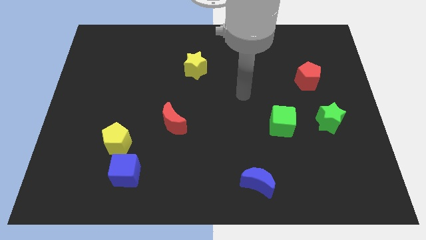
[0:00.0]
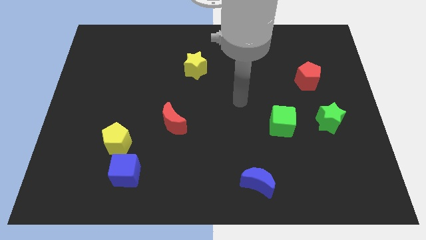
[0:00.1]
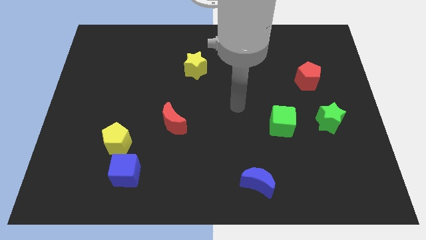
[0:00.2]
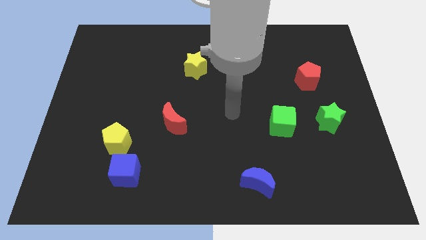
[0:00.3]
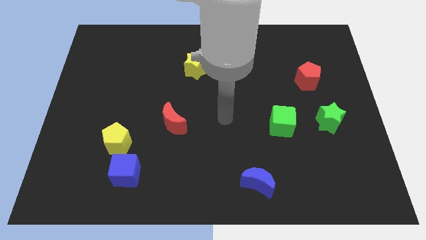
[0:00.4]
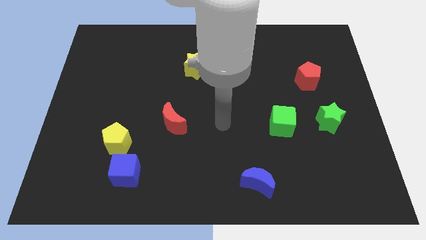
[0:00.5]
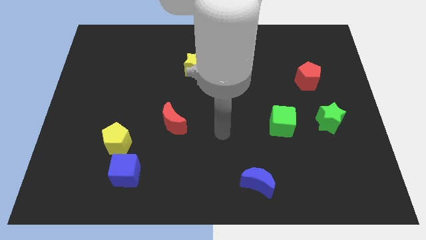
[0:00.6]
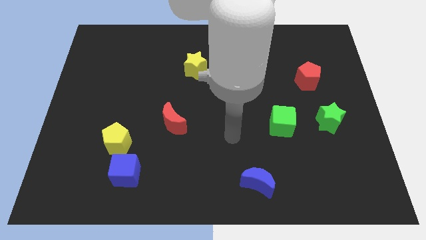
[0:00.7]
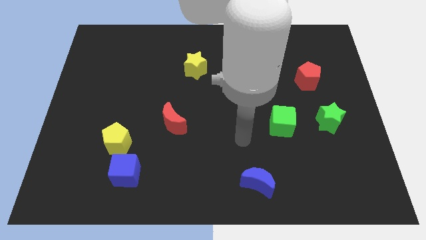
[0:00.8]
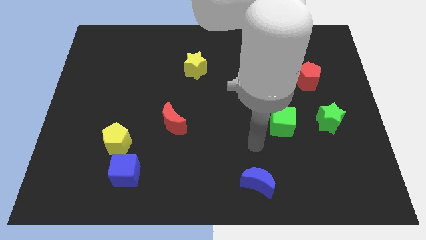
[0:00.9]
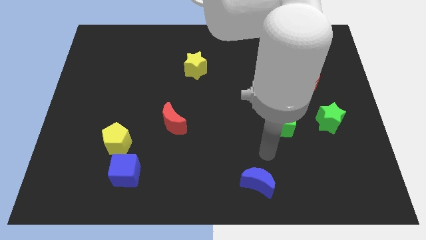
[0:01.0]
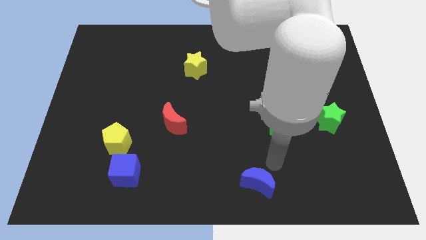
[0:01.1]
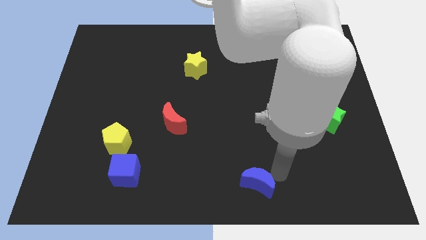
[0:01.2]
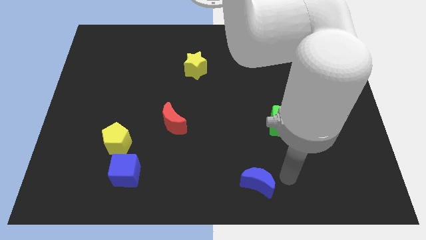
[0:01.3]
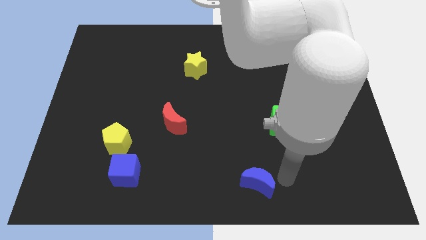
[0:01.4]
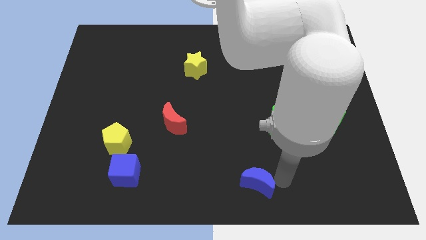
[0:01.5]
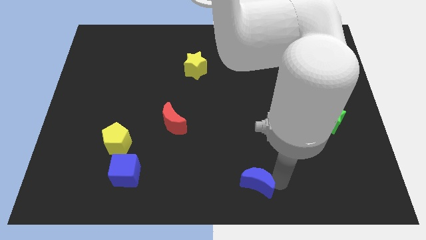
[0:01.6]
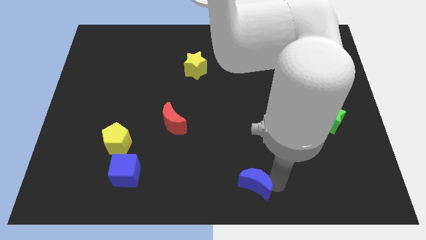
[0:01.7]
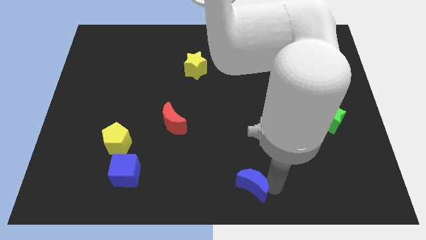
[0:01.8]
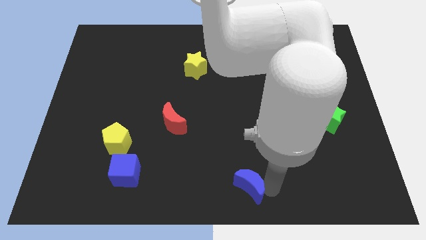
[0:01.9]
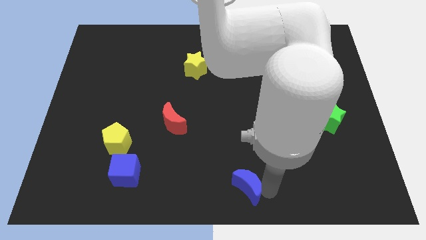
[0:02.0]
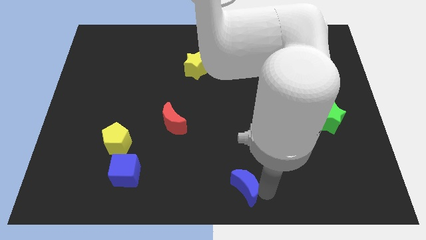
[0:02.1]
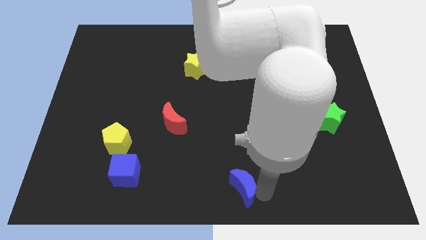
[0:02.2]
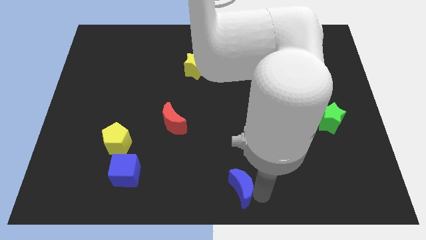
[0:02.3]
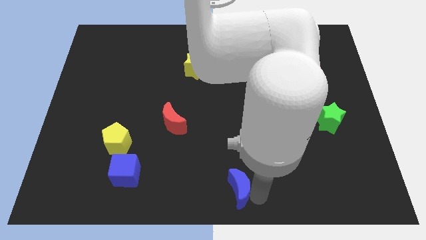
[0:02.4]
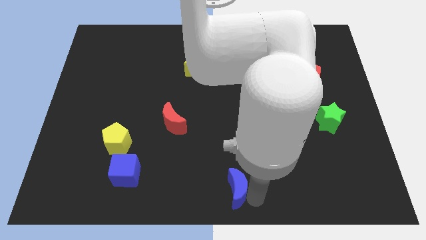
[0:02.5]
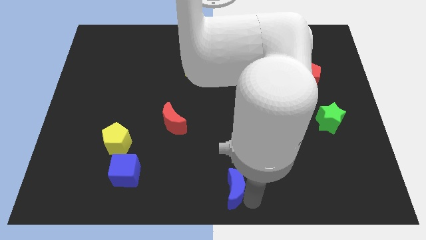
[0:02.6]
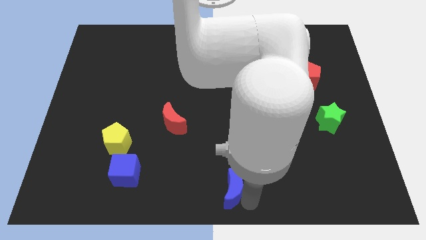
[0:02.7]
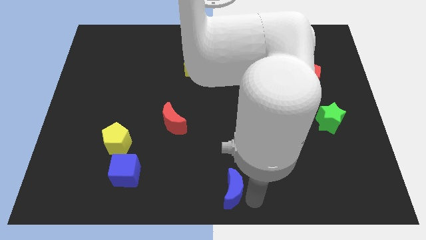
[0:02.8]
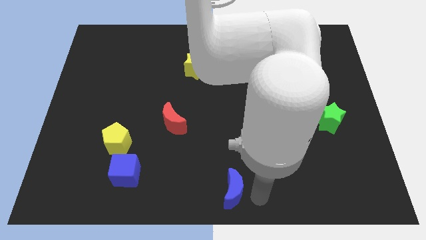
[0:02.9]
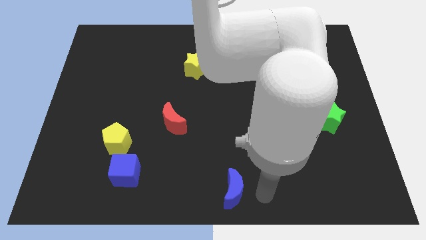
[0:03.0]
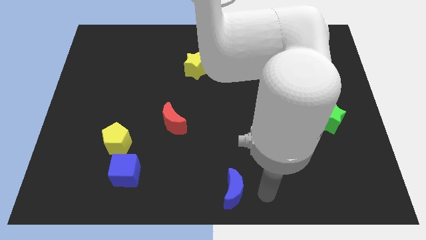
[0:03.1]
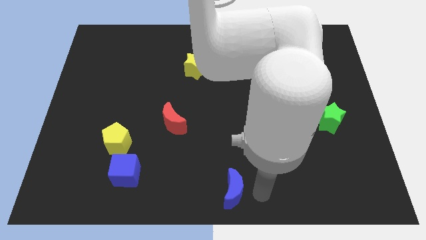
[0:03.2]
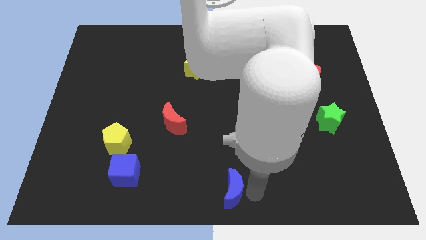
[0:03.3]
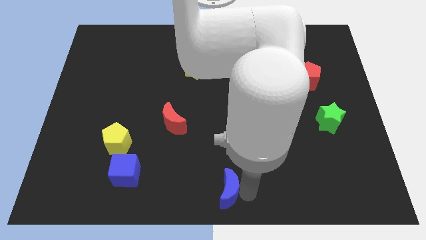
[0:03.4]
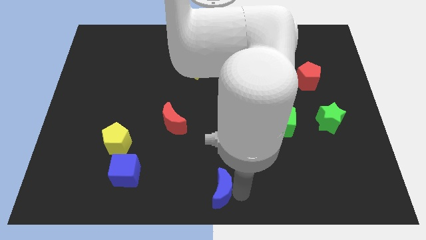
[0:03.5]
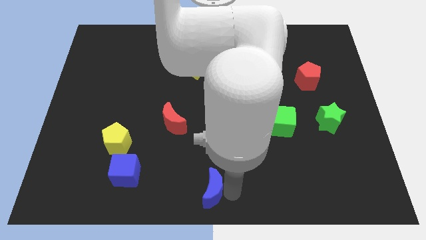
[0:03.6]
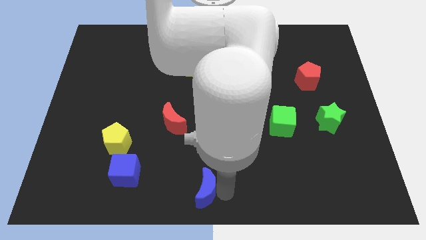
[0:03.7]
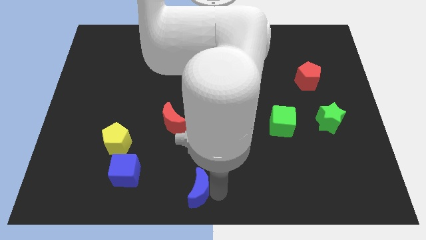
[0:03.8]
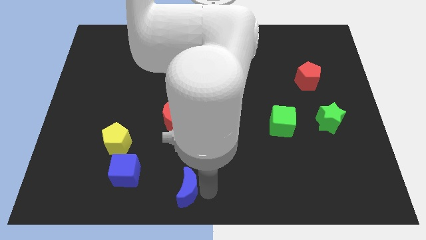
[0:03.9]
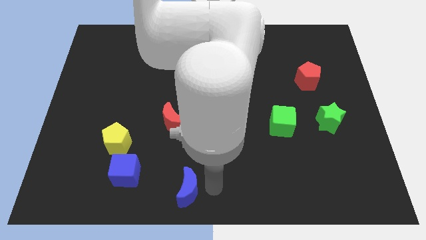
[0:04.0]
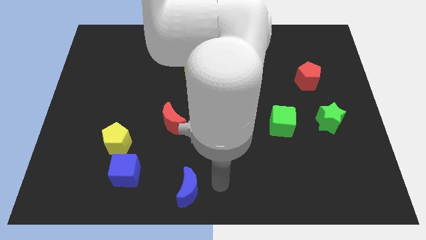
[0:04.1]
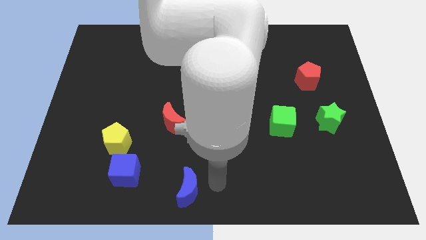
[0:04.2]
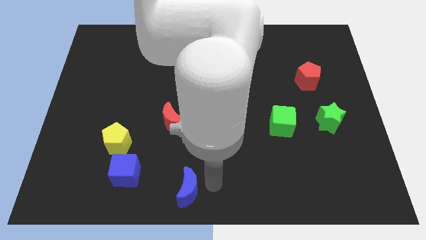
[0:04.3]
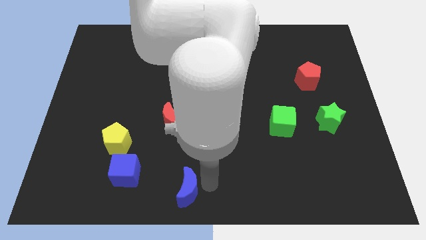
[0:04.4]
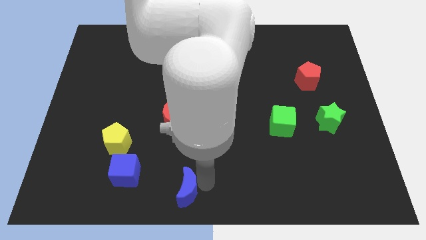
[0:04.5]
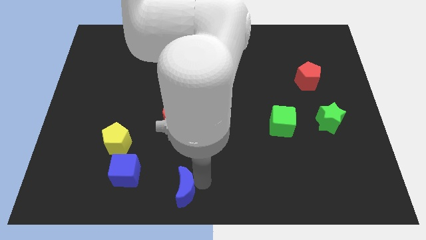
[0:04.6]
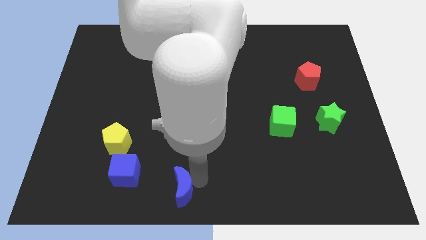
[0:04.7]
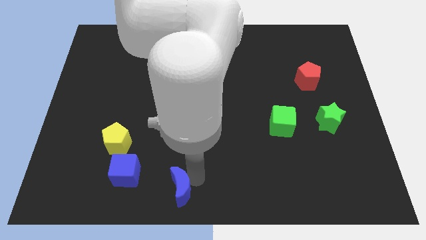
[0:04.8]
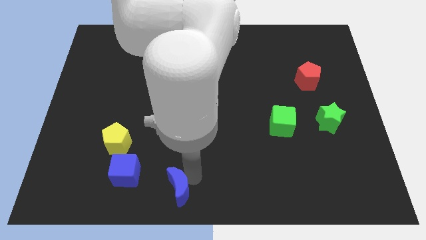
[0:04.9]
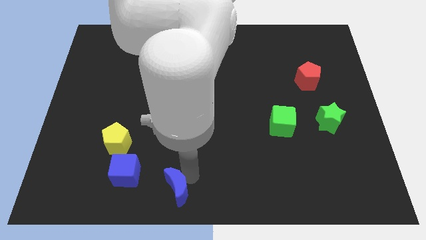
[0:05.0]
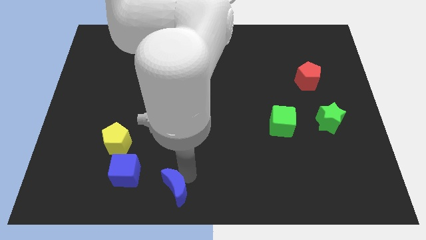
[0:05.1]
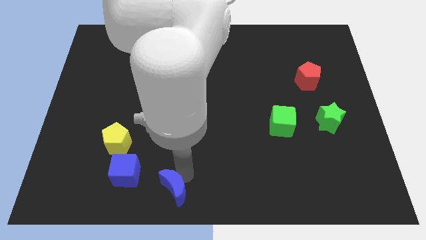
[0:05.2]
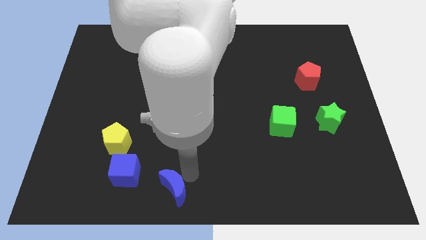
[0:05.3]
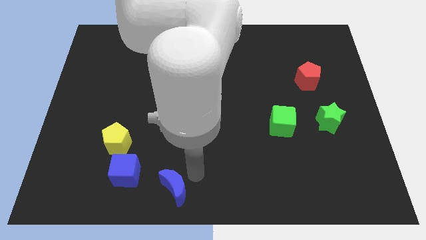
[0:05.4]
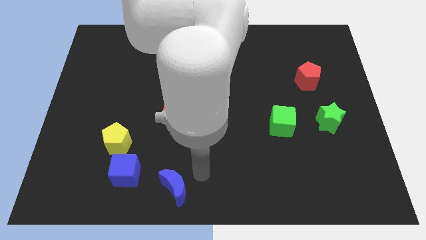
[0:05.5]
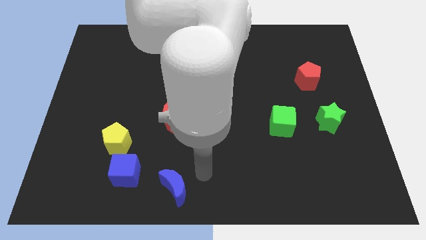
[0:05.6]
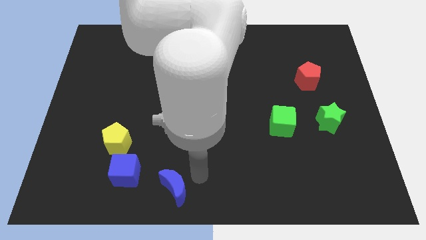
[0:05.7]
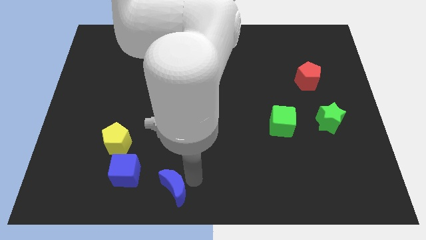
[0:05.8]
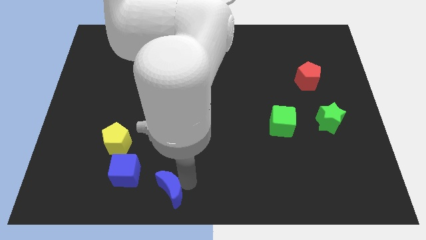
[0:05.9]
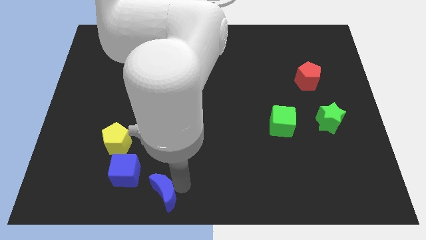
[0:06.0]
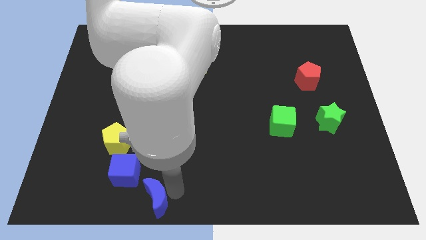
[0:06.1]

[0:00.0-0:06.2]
push the blue moon left

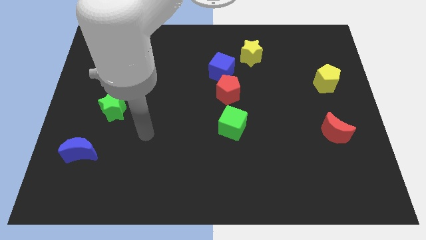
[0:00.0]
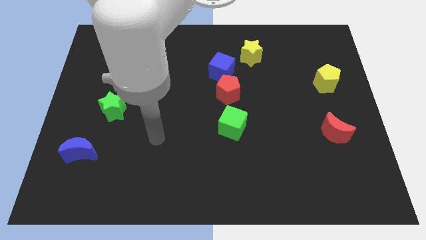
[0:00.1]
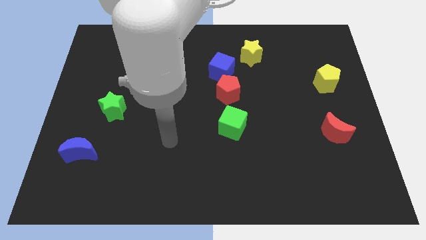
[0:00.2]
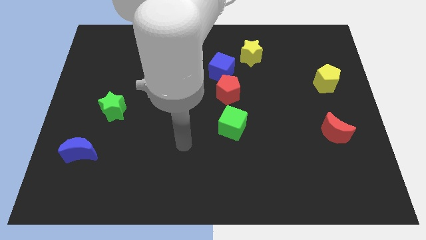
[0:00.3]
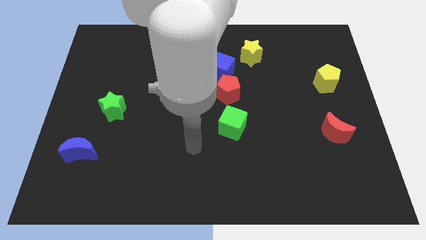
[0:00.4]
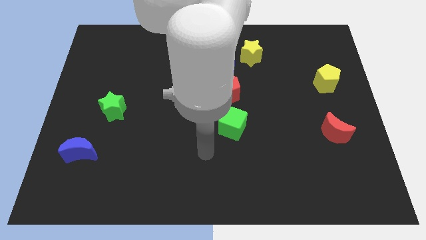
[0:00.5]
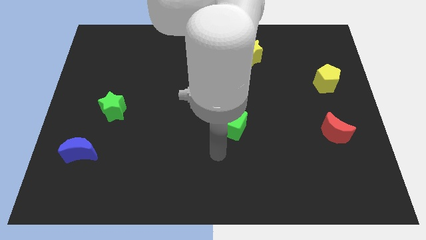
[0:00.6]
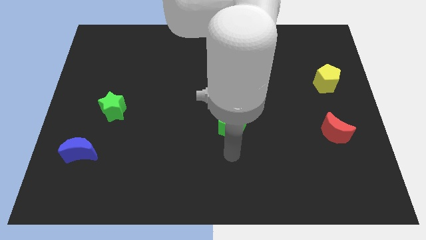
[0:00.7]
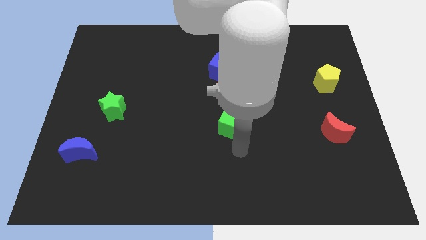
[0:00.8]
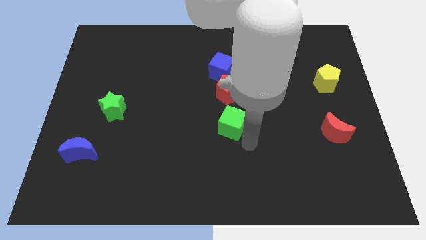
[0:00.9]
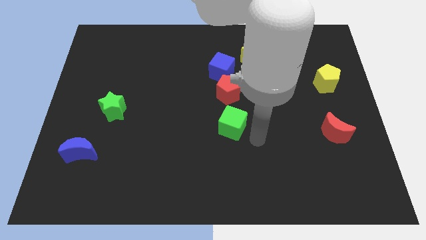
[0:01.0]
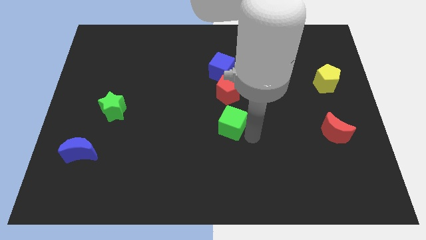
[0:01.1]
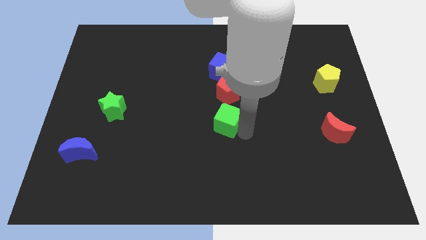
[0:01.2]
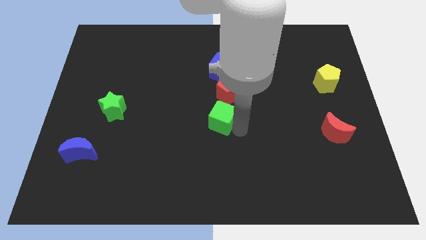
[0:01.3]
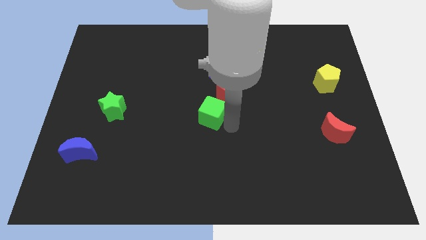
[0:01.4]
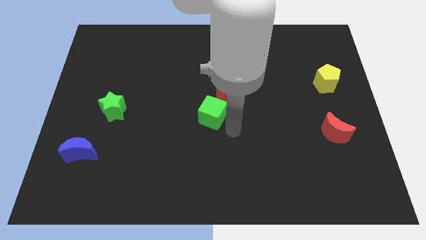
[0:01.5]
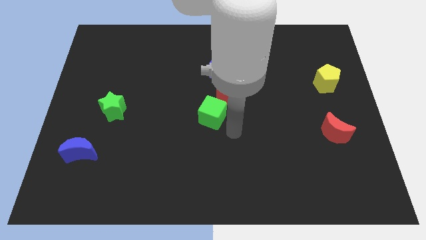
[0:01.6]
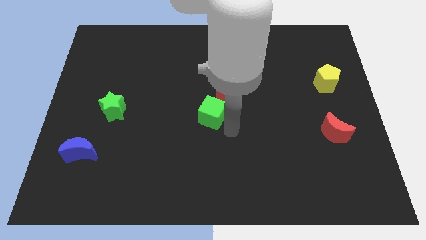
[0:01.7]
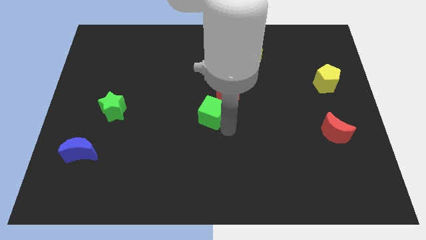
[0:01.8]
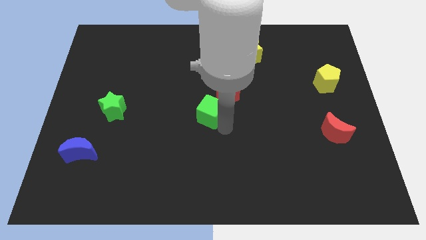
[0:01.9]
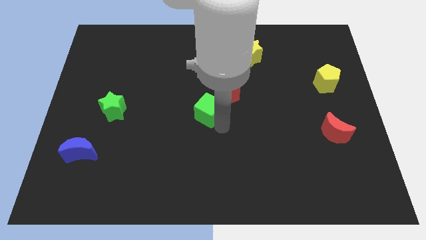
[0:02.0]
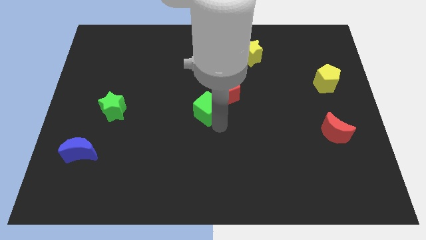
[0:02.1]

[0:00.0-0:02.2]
slide the green cube a little up and left

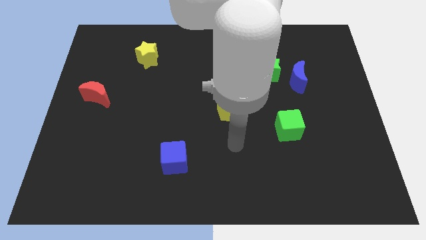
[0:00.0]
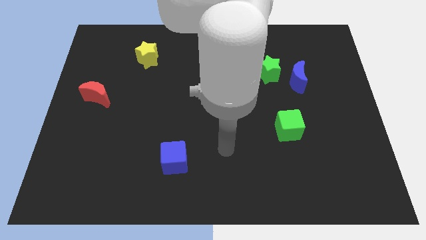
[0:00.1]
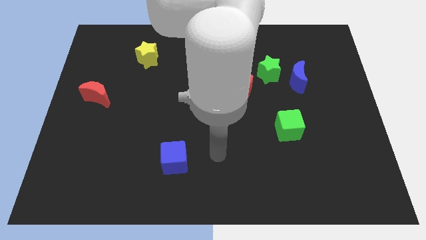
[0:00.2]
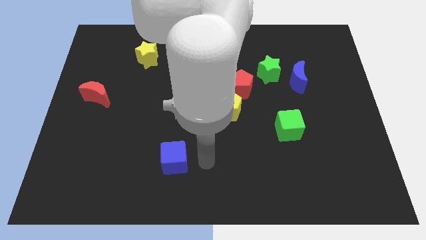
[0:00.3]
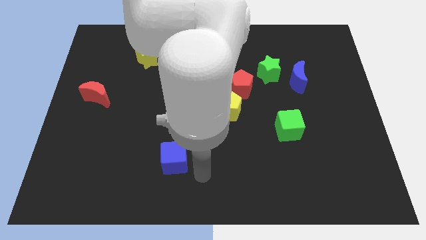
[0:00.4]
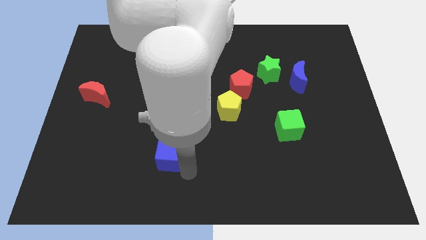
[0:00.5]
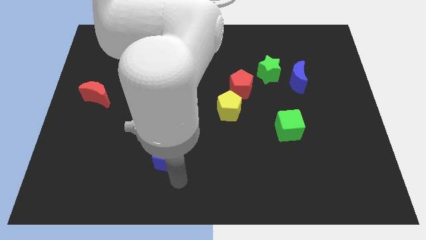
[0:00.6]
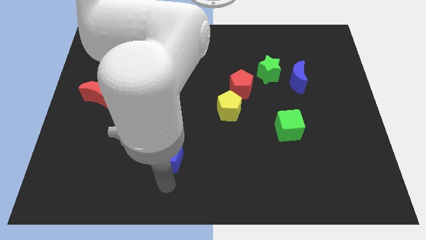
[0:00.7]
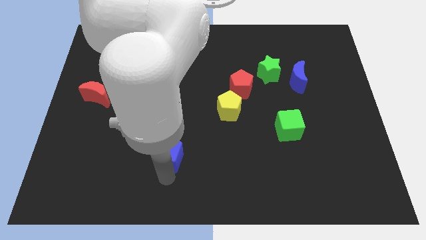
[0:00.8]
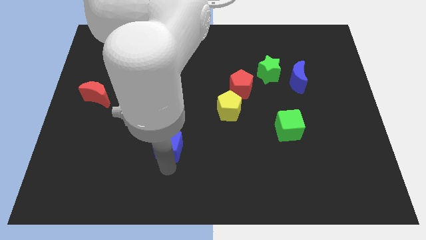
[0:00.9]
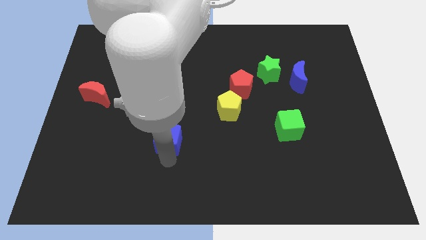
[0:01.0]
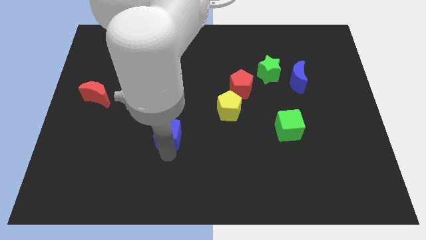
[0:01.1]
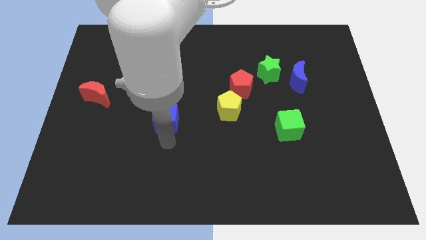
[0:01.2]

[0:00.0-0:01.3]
push the blue cube up a little bit
